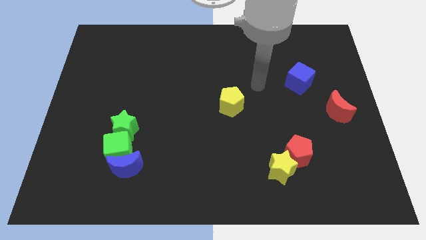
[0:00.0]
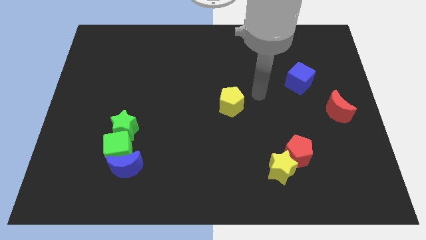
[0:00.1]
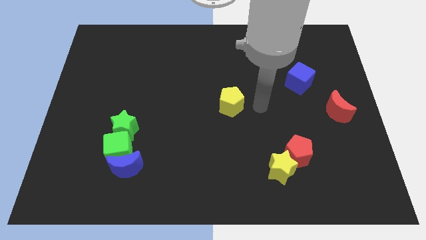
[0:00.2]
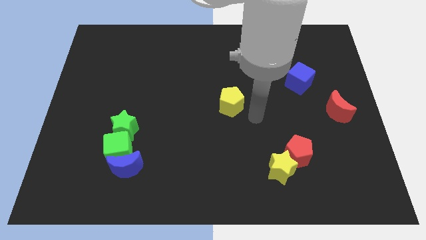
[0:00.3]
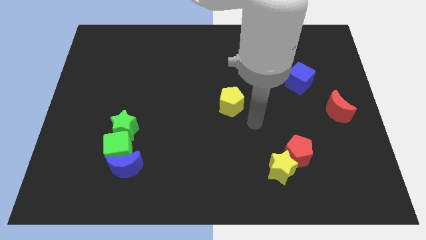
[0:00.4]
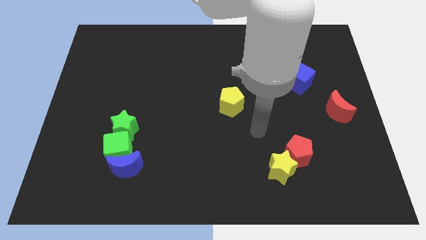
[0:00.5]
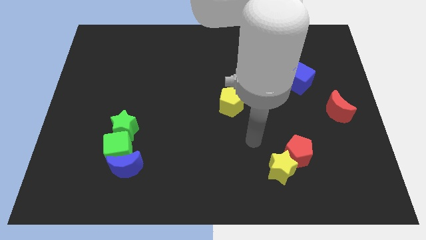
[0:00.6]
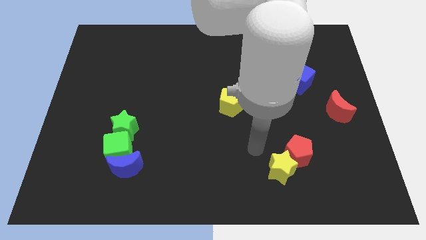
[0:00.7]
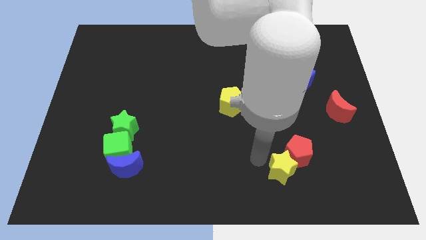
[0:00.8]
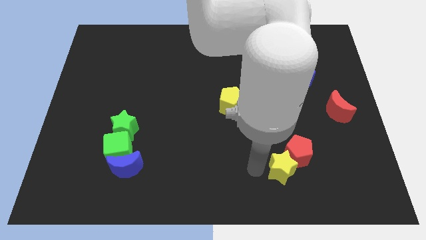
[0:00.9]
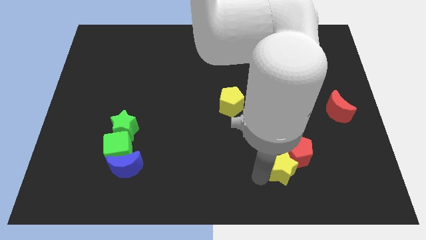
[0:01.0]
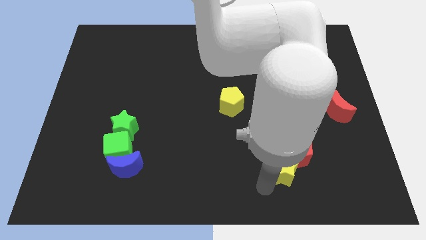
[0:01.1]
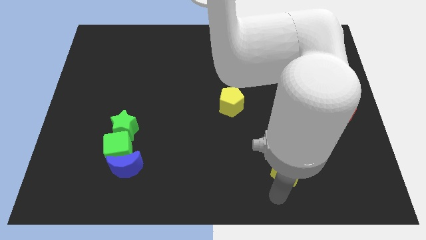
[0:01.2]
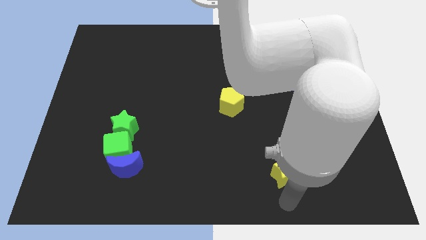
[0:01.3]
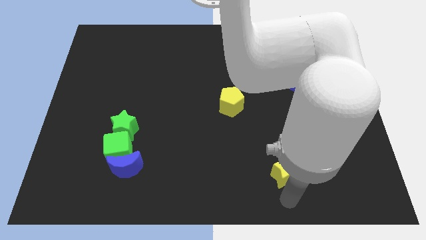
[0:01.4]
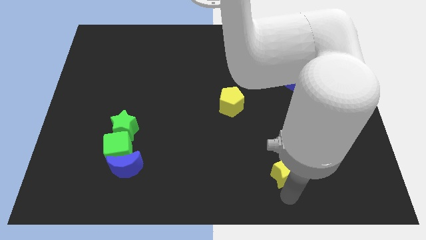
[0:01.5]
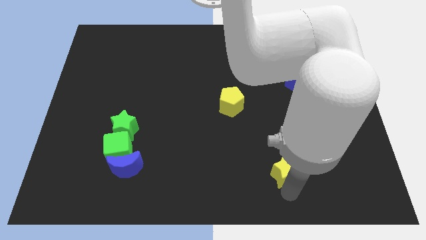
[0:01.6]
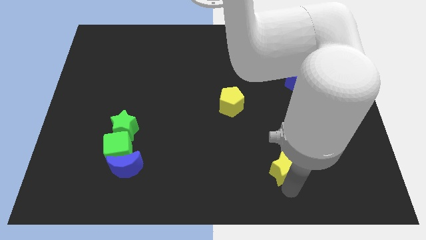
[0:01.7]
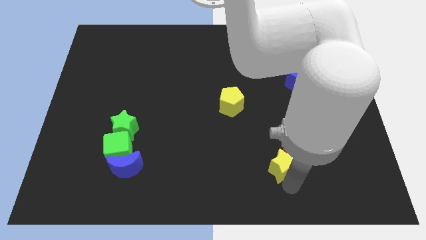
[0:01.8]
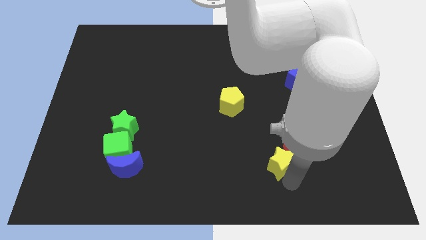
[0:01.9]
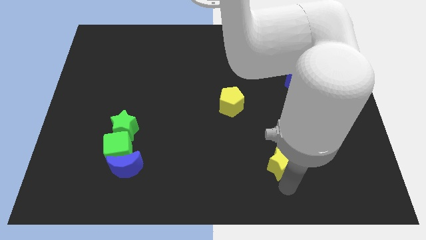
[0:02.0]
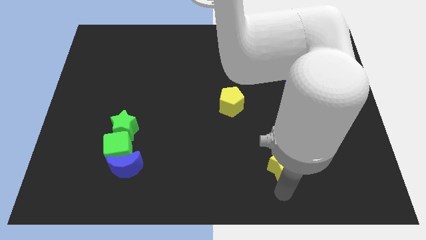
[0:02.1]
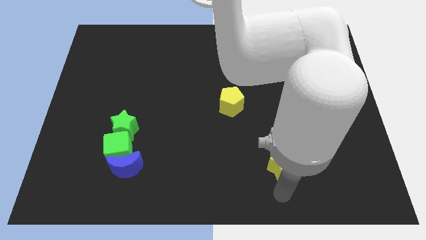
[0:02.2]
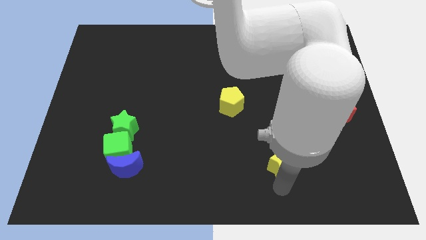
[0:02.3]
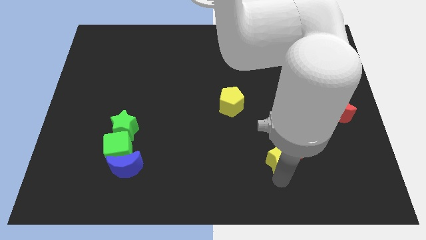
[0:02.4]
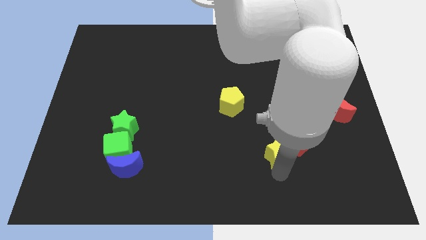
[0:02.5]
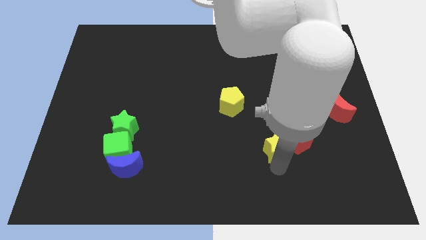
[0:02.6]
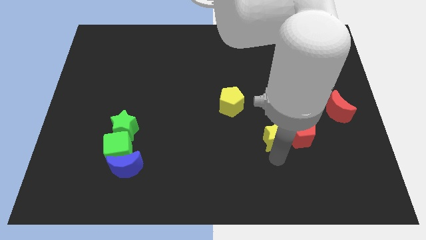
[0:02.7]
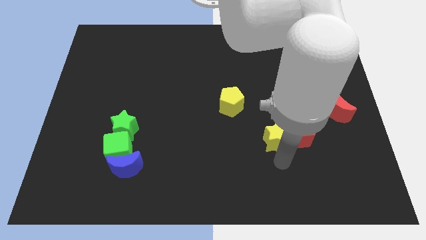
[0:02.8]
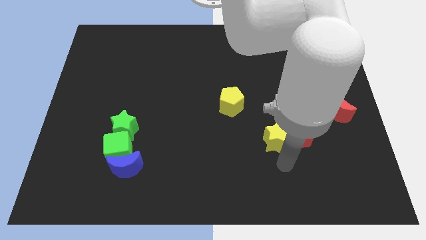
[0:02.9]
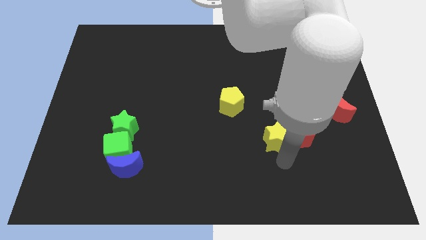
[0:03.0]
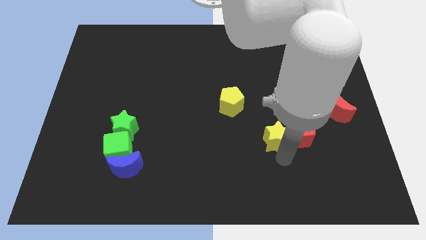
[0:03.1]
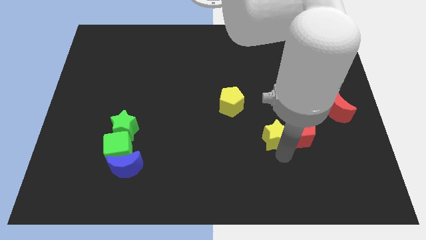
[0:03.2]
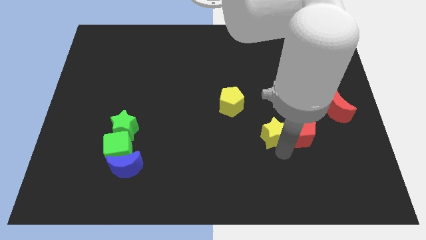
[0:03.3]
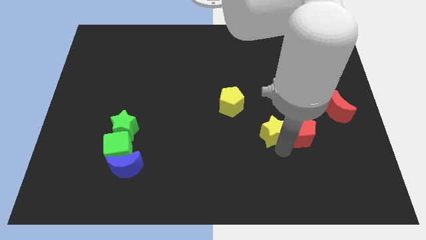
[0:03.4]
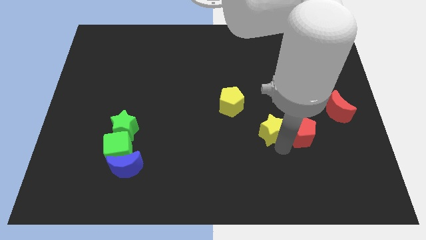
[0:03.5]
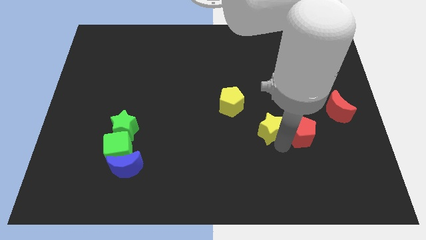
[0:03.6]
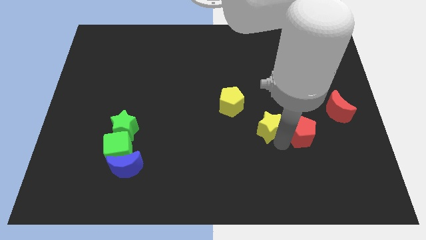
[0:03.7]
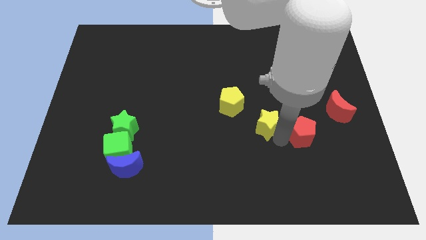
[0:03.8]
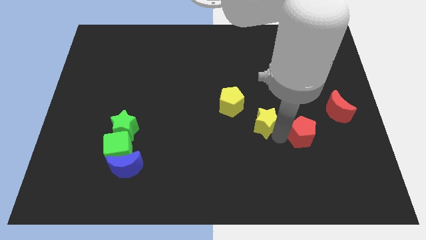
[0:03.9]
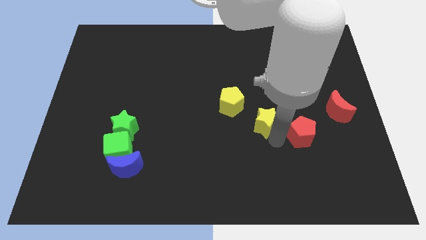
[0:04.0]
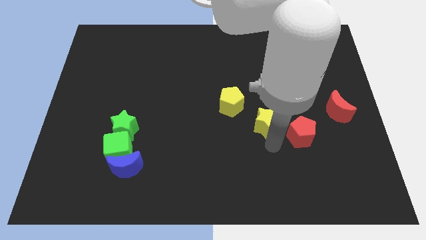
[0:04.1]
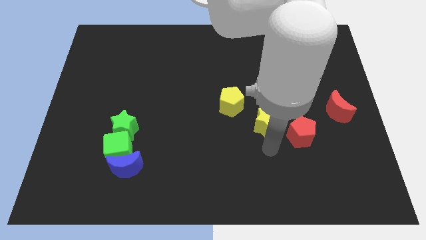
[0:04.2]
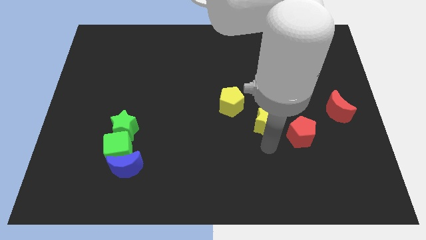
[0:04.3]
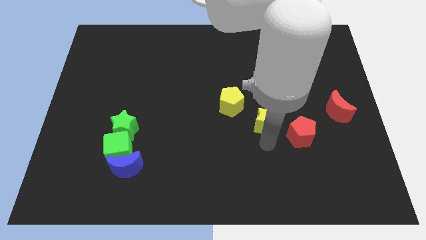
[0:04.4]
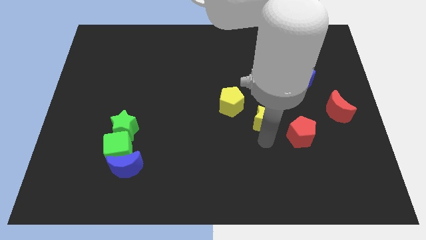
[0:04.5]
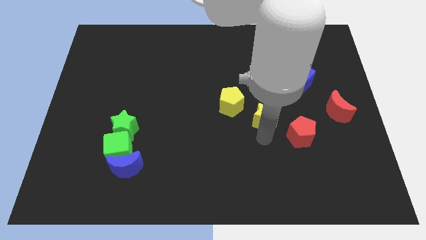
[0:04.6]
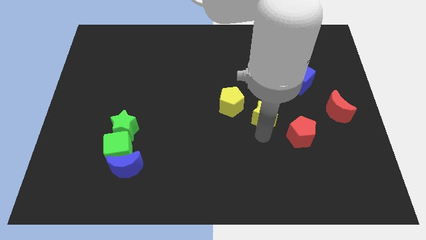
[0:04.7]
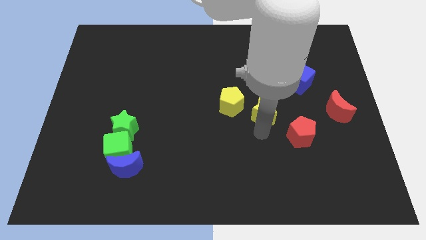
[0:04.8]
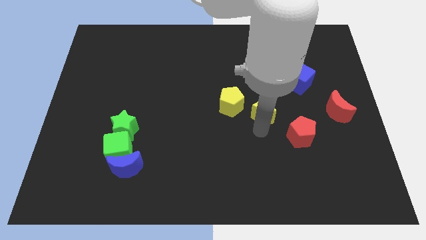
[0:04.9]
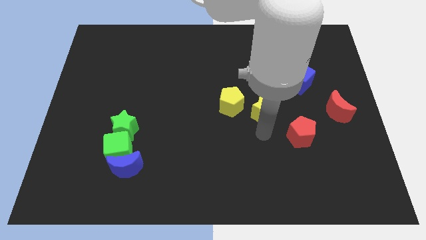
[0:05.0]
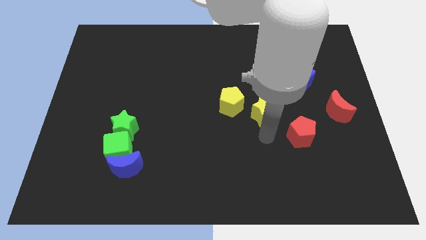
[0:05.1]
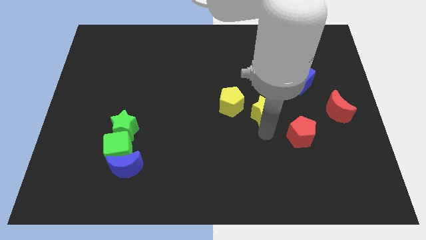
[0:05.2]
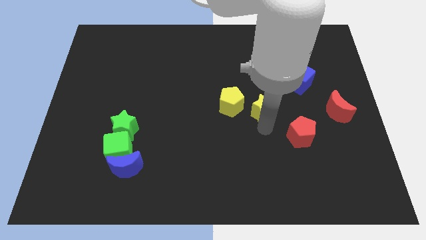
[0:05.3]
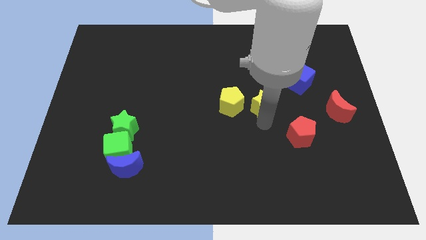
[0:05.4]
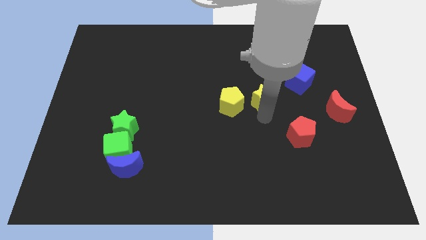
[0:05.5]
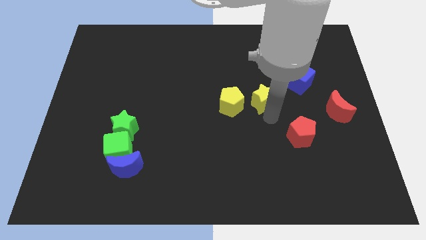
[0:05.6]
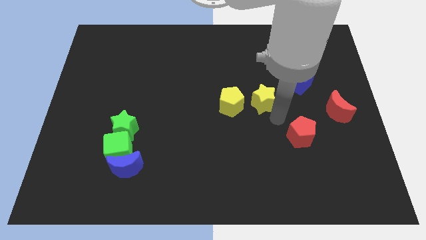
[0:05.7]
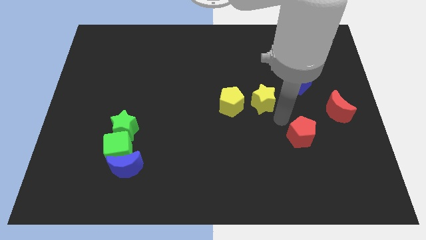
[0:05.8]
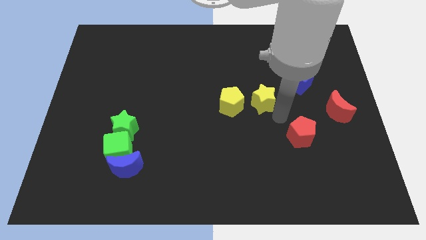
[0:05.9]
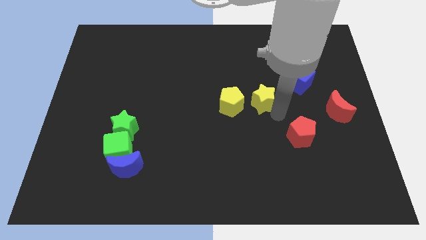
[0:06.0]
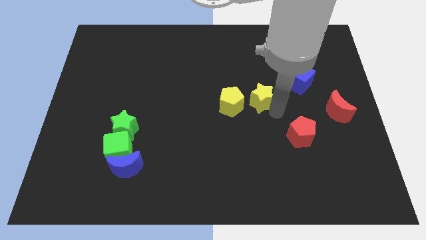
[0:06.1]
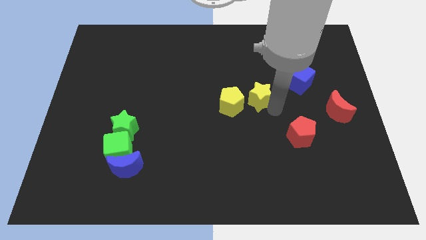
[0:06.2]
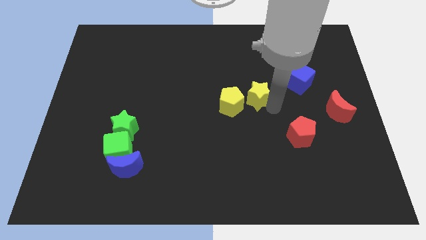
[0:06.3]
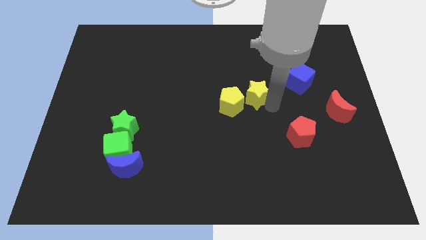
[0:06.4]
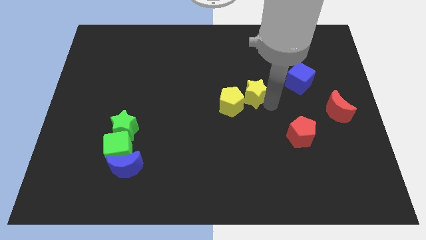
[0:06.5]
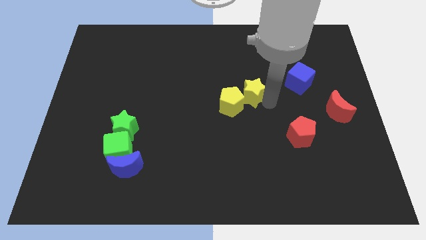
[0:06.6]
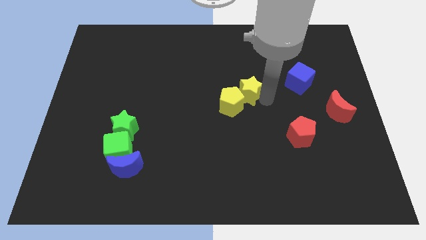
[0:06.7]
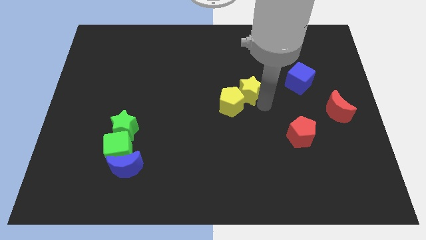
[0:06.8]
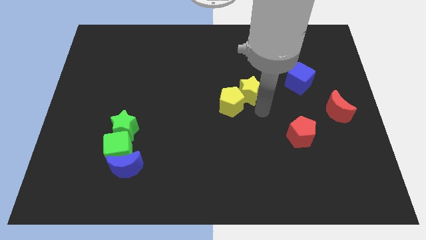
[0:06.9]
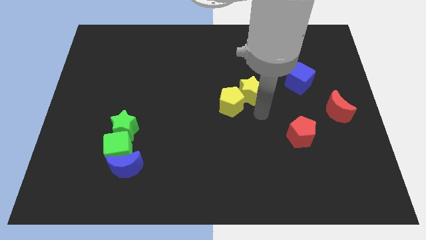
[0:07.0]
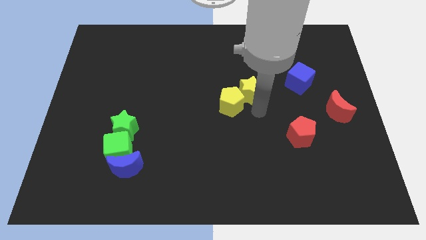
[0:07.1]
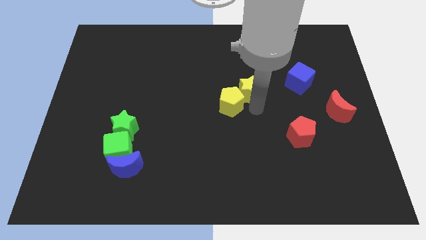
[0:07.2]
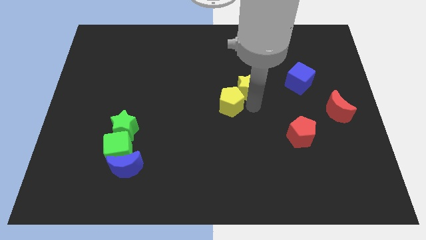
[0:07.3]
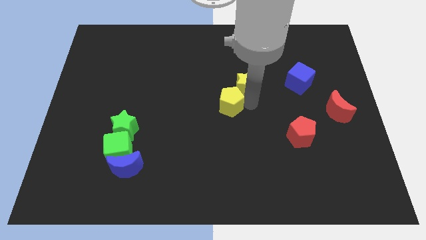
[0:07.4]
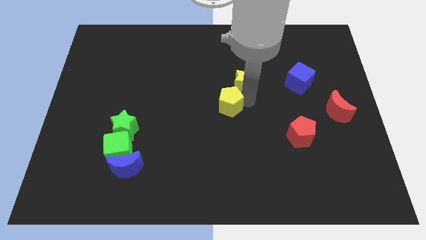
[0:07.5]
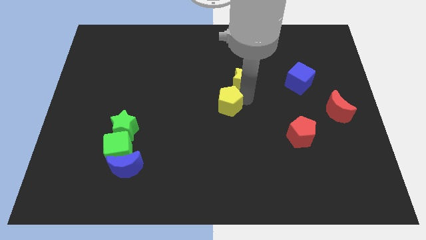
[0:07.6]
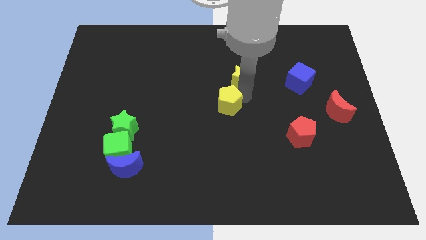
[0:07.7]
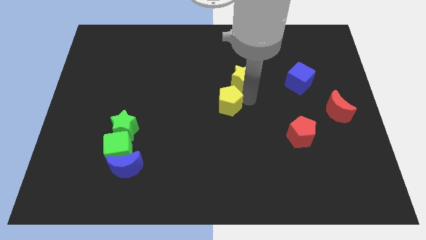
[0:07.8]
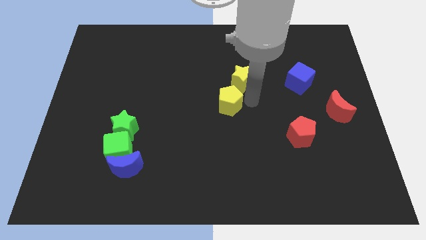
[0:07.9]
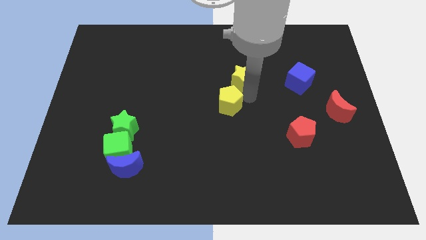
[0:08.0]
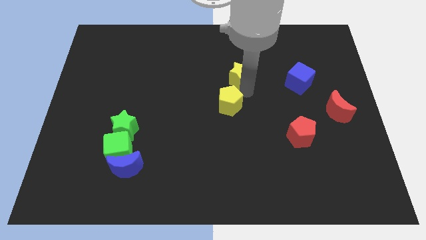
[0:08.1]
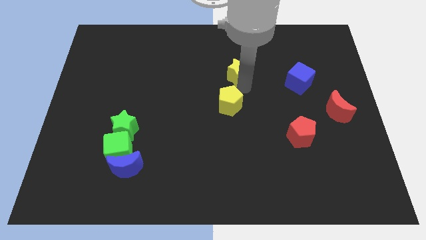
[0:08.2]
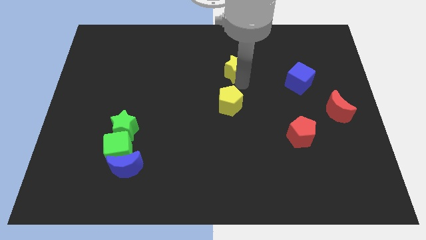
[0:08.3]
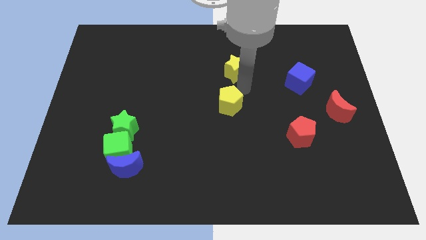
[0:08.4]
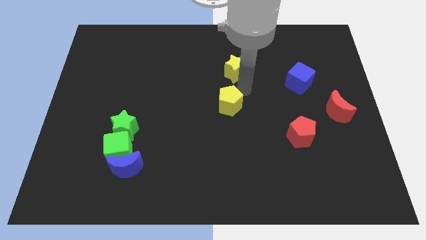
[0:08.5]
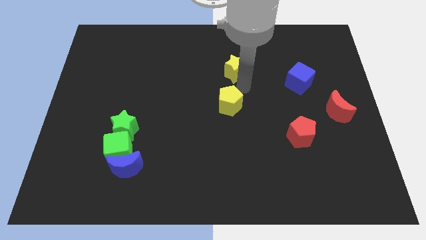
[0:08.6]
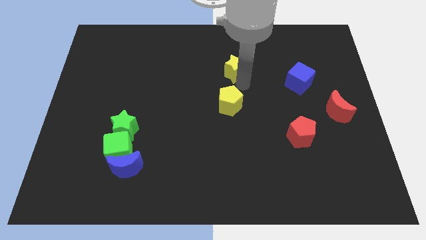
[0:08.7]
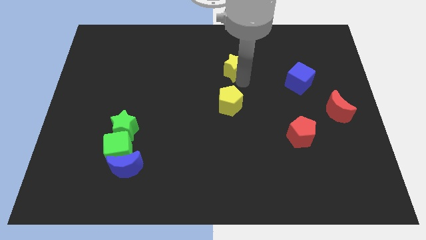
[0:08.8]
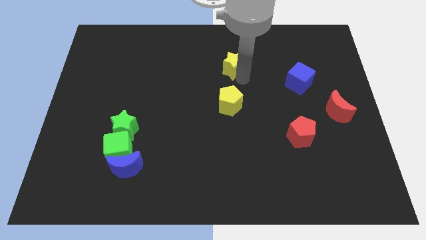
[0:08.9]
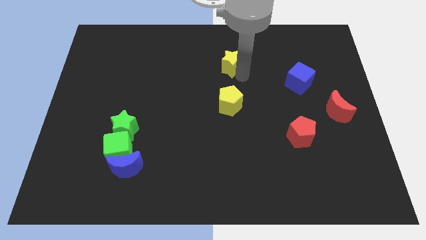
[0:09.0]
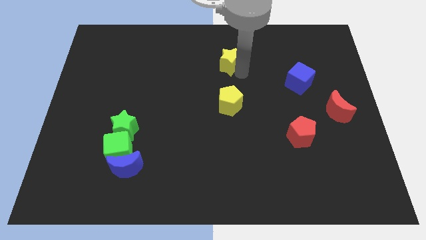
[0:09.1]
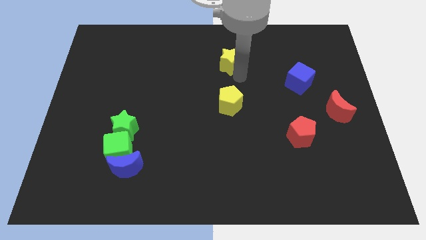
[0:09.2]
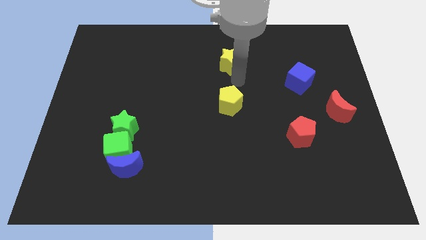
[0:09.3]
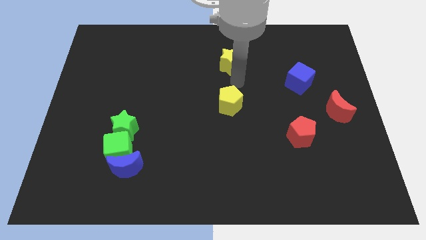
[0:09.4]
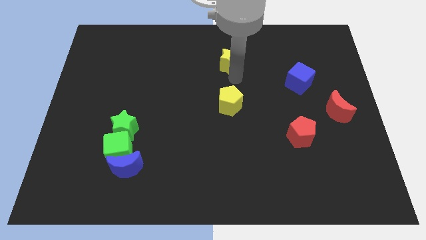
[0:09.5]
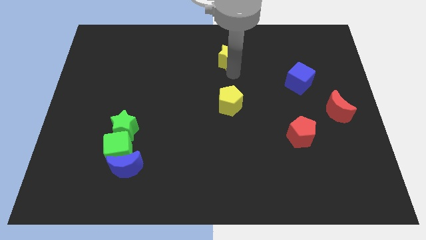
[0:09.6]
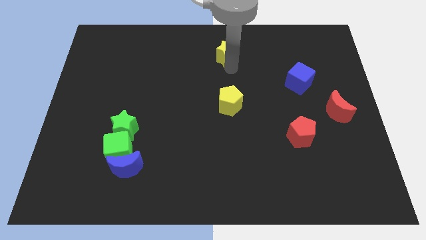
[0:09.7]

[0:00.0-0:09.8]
put the yellow star to the top
